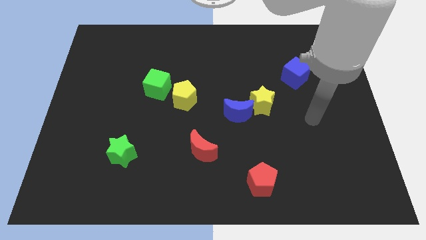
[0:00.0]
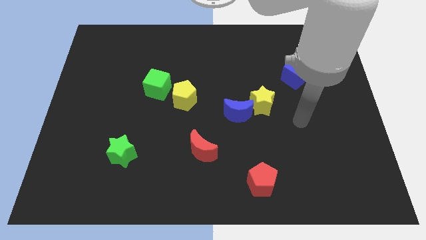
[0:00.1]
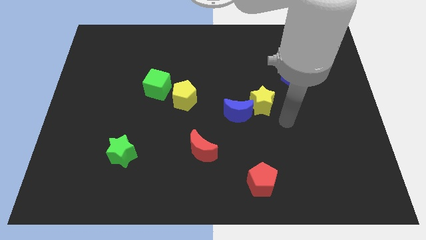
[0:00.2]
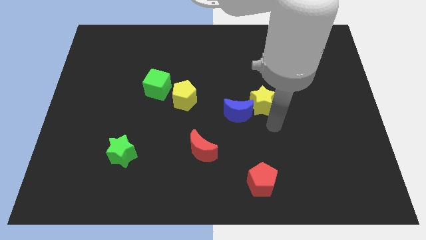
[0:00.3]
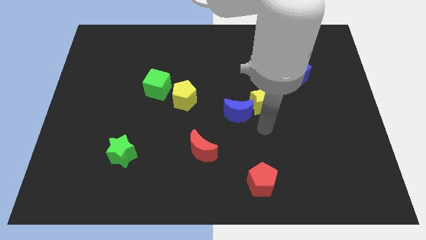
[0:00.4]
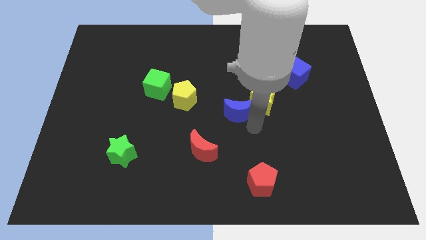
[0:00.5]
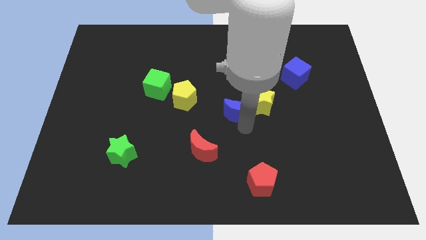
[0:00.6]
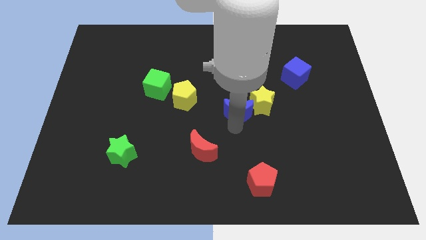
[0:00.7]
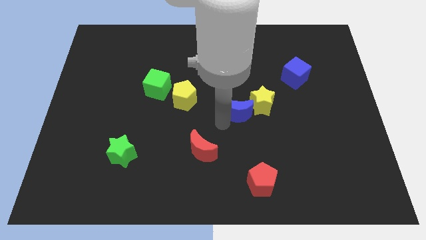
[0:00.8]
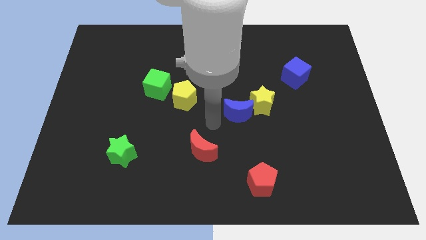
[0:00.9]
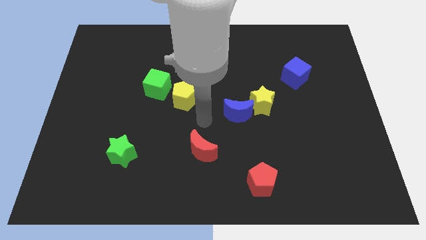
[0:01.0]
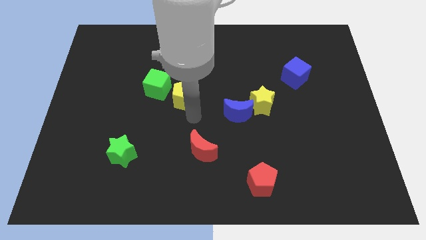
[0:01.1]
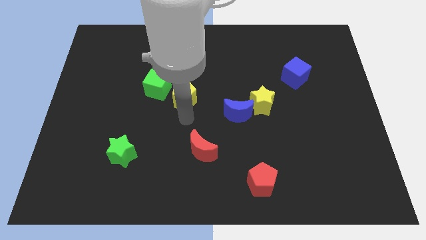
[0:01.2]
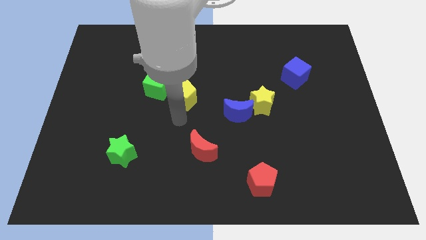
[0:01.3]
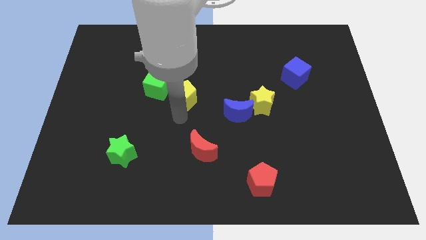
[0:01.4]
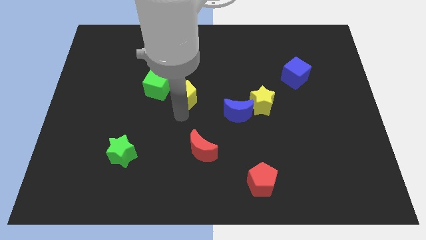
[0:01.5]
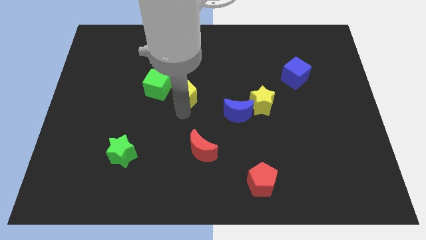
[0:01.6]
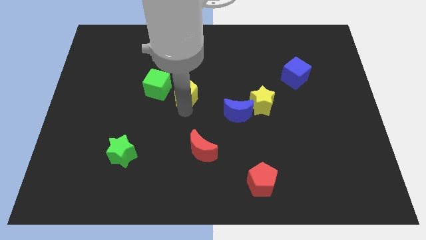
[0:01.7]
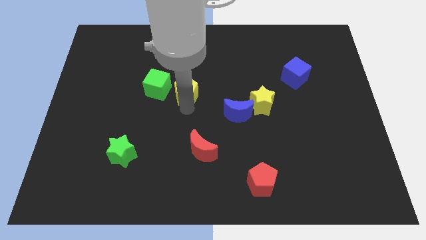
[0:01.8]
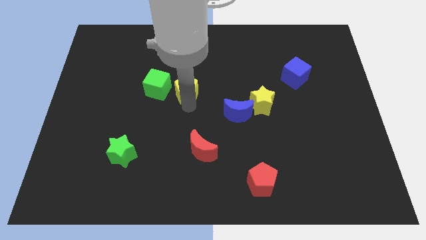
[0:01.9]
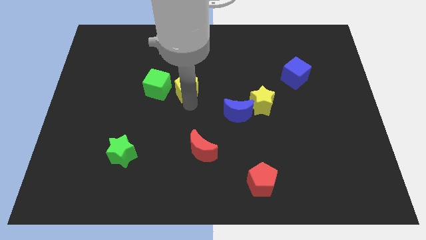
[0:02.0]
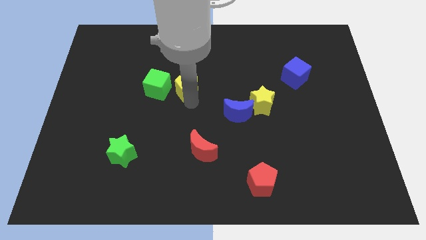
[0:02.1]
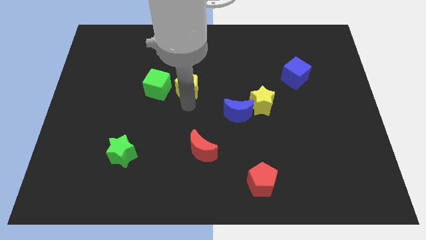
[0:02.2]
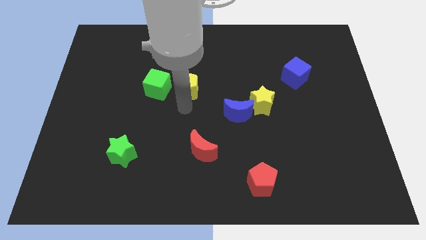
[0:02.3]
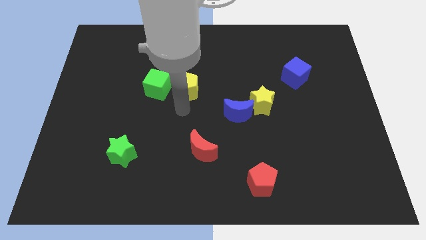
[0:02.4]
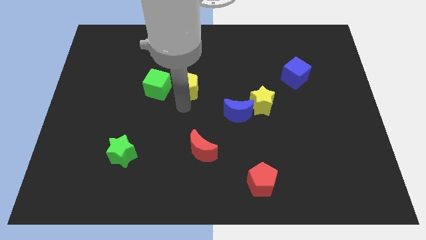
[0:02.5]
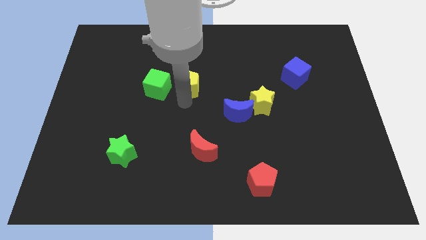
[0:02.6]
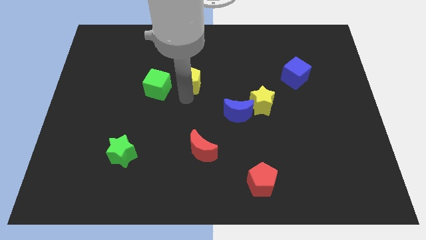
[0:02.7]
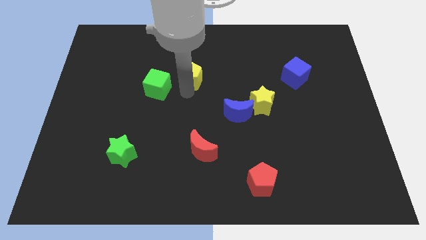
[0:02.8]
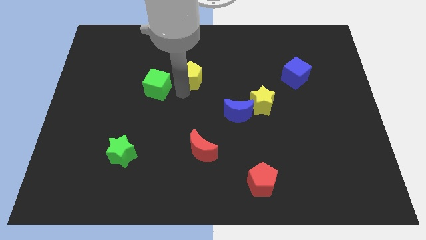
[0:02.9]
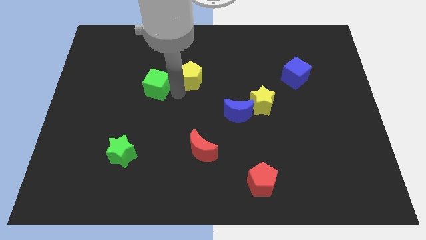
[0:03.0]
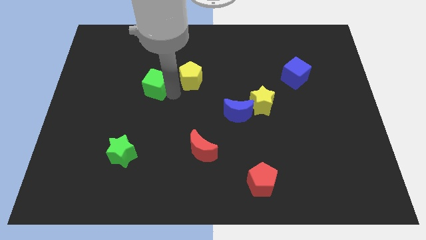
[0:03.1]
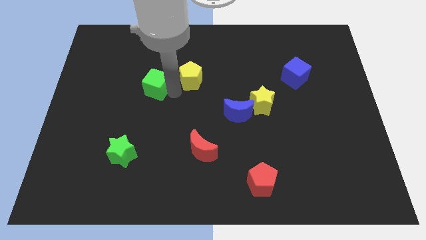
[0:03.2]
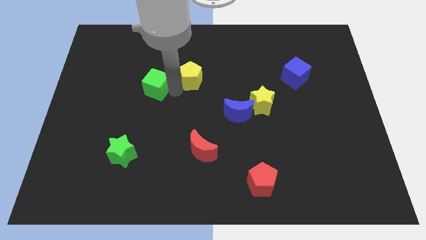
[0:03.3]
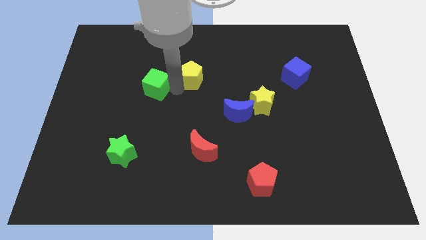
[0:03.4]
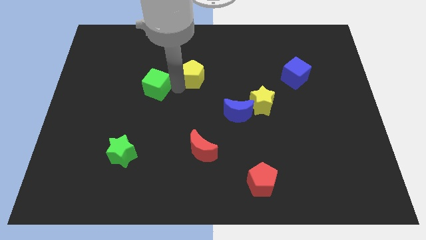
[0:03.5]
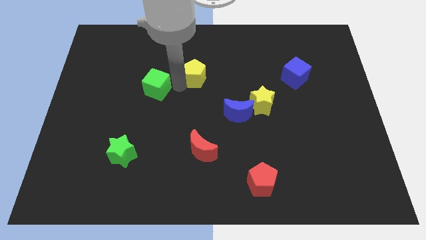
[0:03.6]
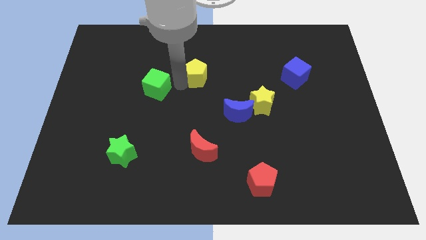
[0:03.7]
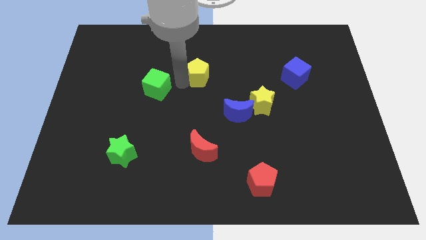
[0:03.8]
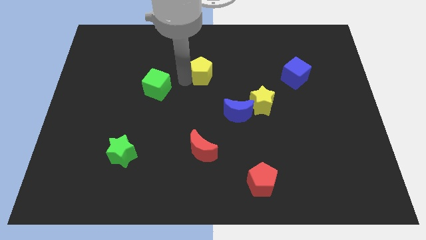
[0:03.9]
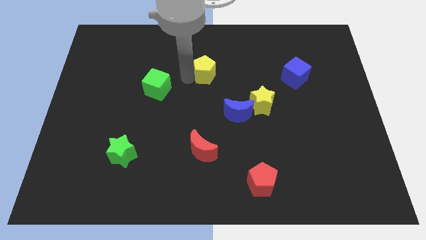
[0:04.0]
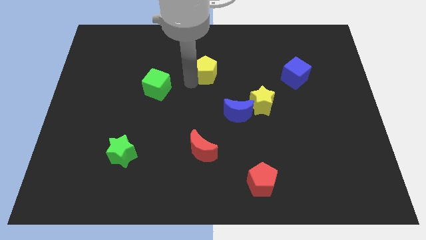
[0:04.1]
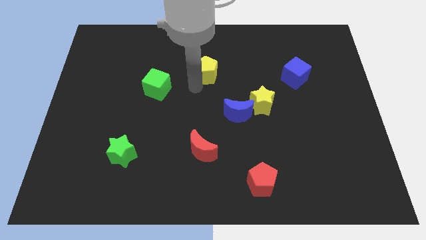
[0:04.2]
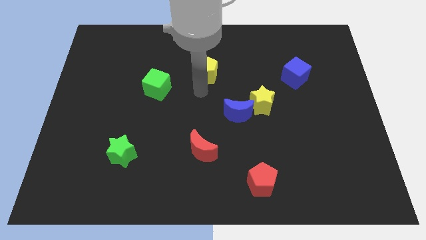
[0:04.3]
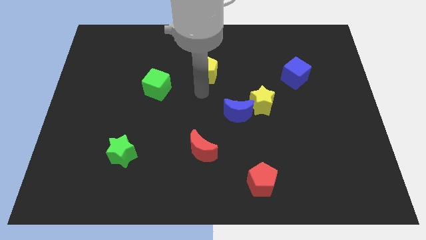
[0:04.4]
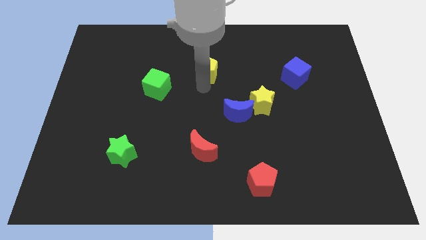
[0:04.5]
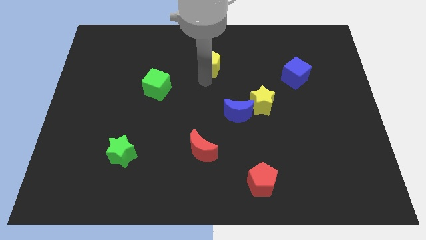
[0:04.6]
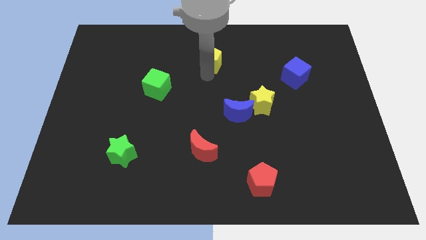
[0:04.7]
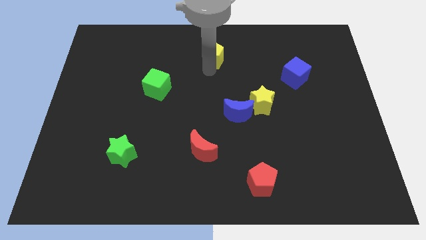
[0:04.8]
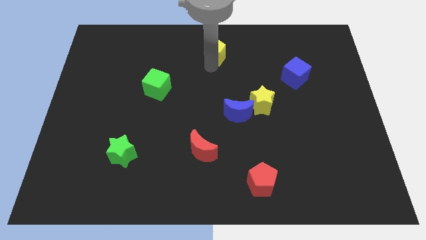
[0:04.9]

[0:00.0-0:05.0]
put the yellow pentagon to the towards your base

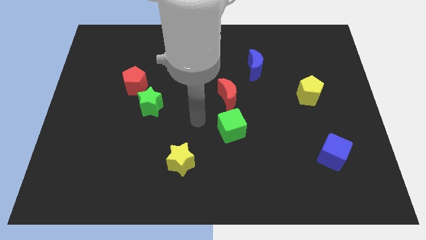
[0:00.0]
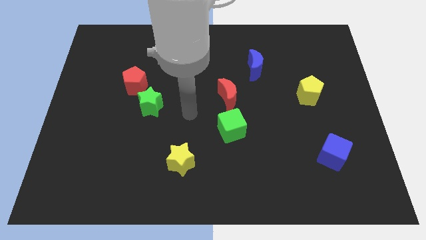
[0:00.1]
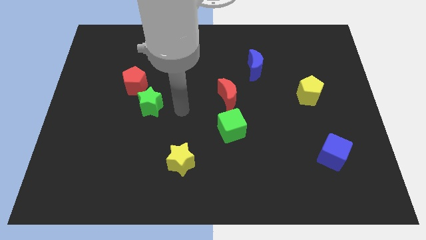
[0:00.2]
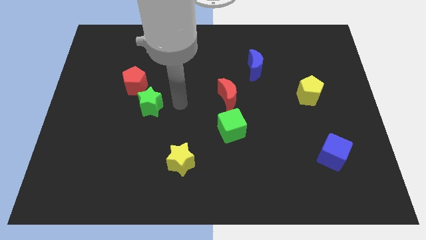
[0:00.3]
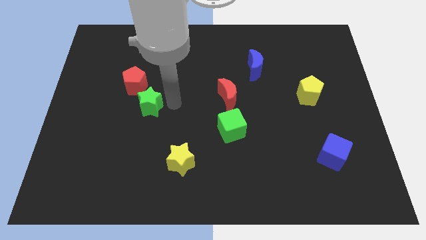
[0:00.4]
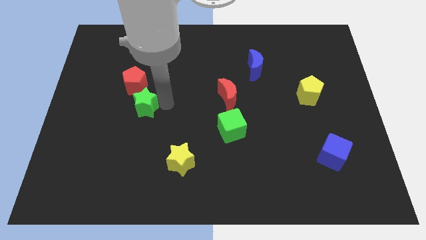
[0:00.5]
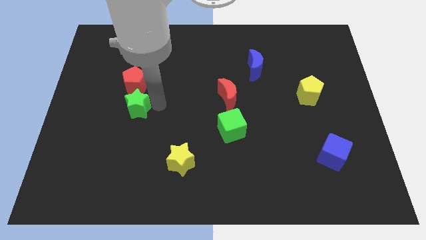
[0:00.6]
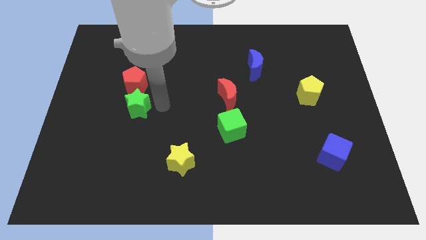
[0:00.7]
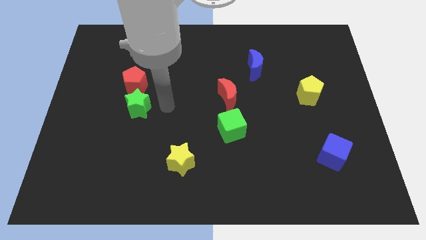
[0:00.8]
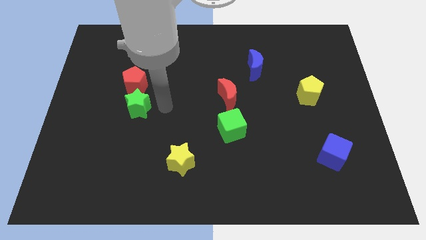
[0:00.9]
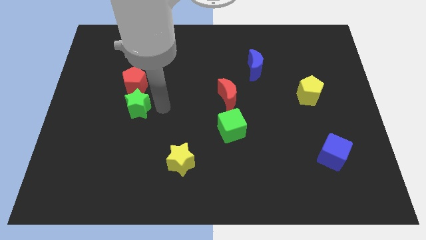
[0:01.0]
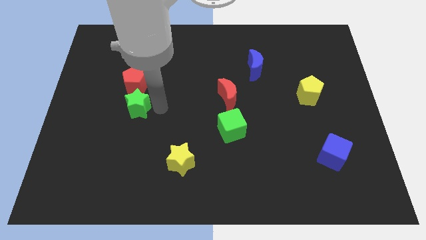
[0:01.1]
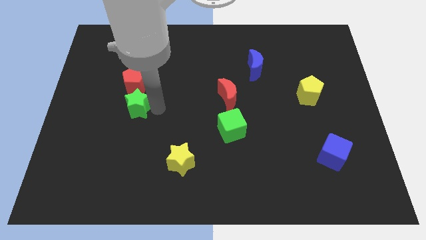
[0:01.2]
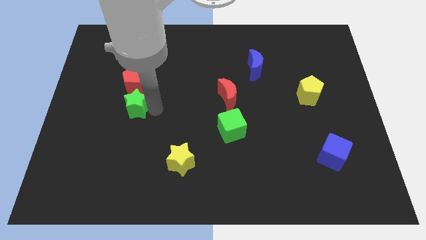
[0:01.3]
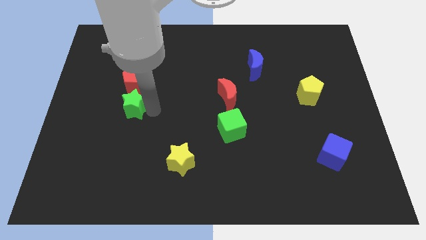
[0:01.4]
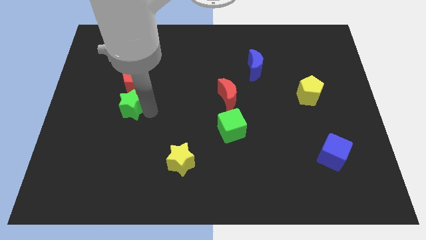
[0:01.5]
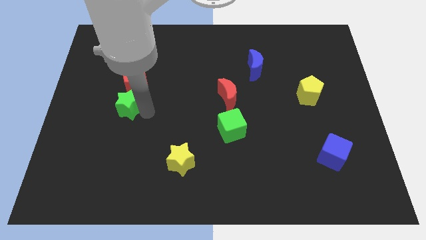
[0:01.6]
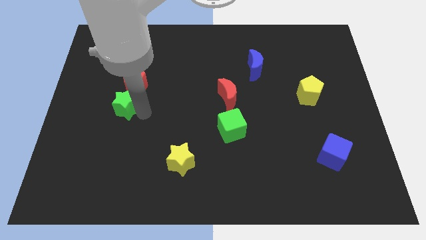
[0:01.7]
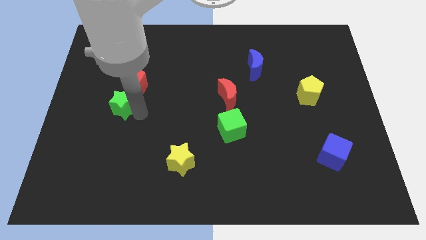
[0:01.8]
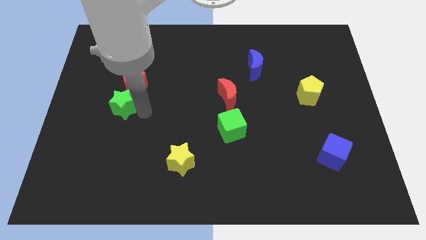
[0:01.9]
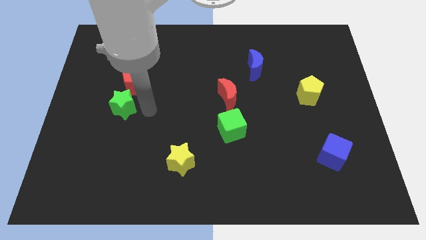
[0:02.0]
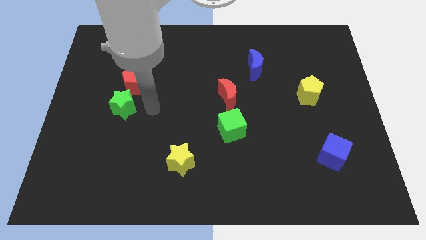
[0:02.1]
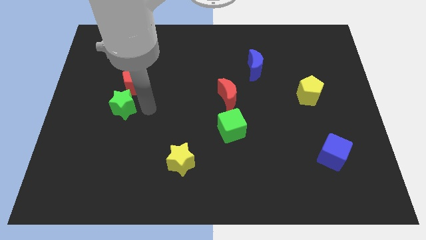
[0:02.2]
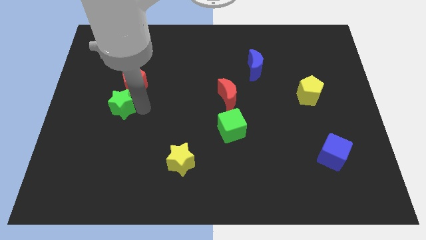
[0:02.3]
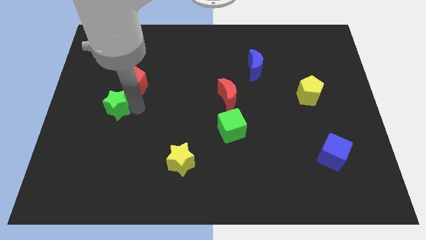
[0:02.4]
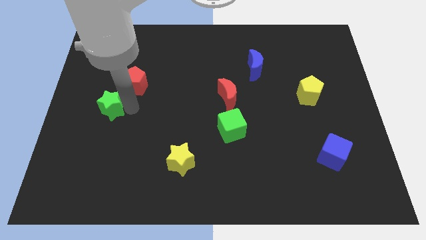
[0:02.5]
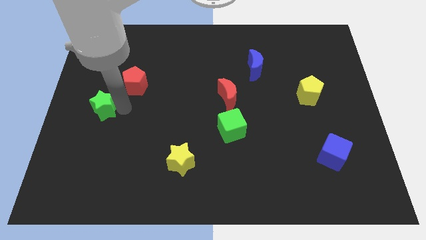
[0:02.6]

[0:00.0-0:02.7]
put the green star to the left side of the board
